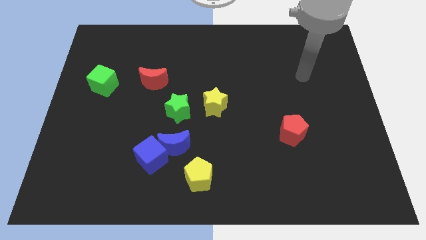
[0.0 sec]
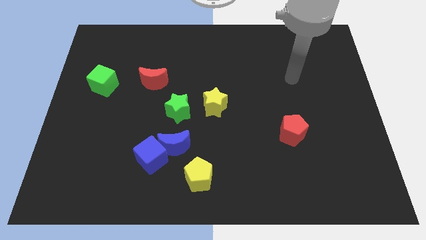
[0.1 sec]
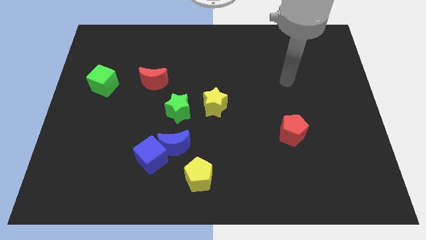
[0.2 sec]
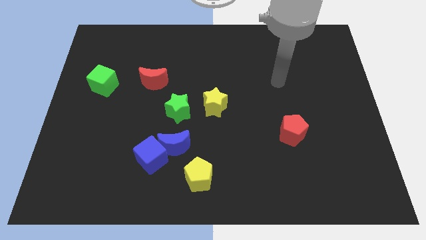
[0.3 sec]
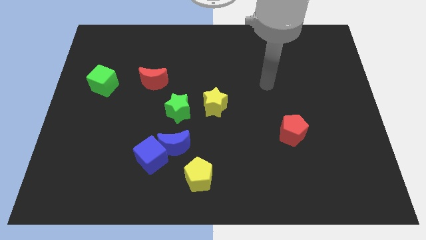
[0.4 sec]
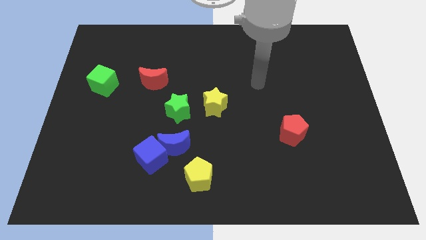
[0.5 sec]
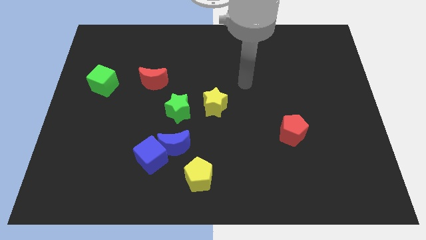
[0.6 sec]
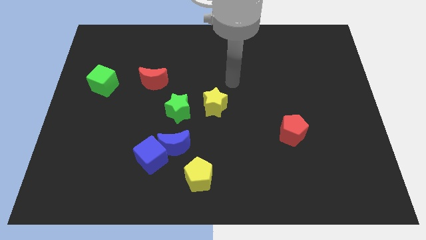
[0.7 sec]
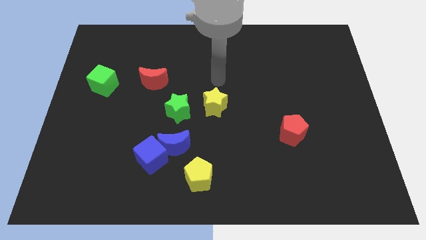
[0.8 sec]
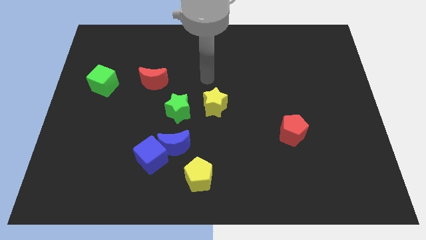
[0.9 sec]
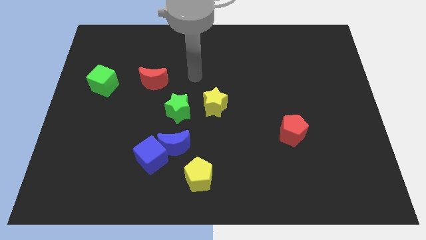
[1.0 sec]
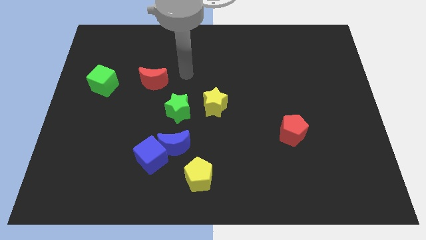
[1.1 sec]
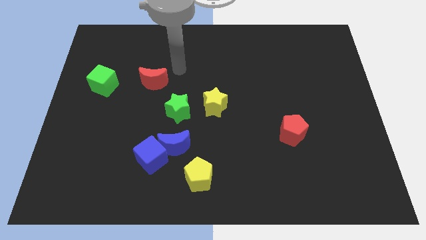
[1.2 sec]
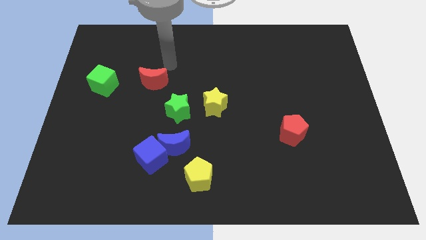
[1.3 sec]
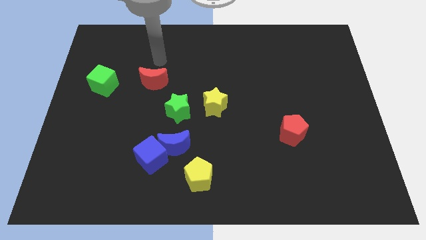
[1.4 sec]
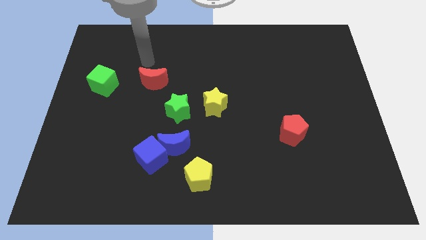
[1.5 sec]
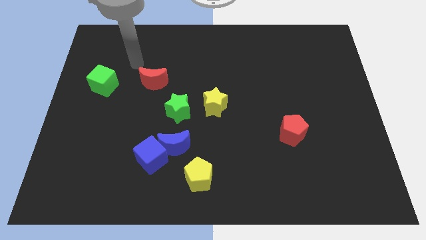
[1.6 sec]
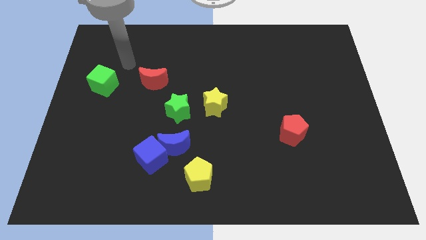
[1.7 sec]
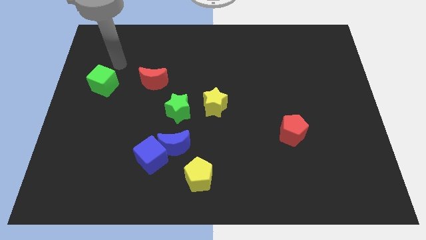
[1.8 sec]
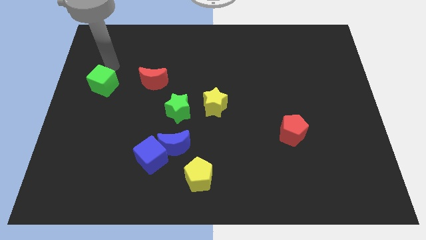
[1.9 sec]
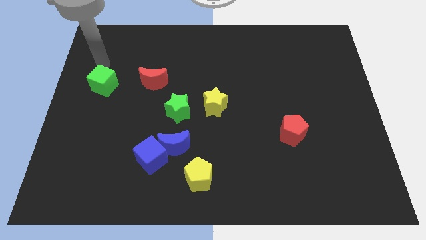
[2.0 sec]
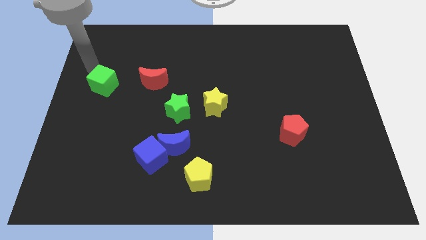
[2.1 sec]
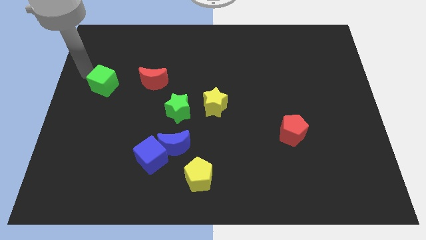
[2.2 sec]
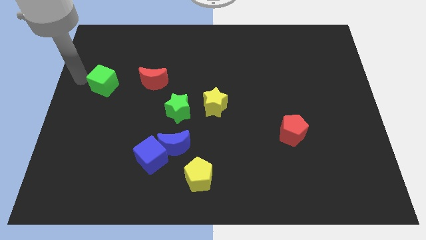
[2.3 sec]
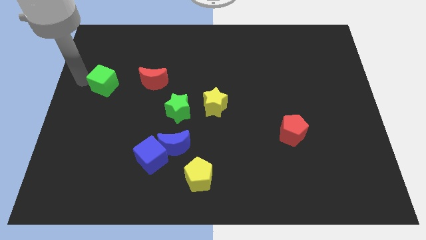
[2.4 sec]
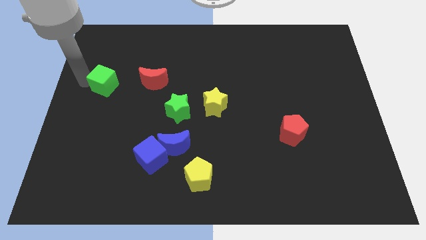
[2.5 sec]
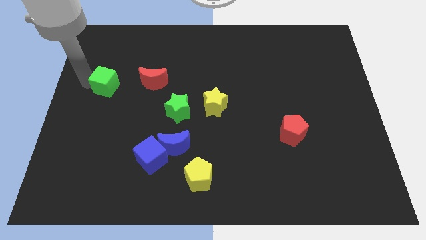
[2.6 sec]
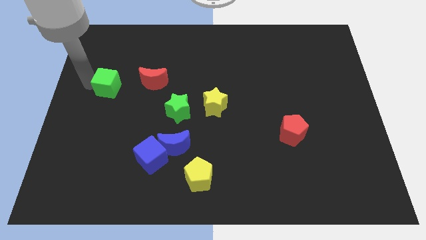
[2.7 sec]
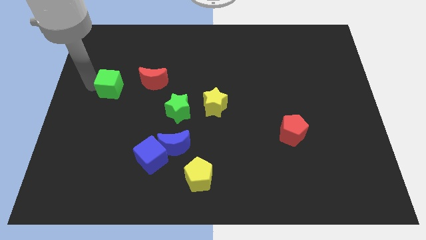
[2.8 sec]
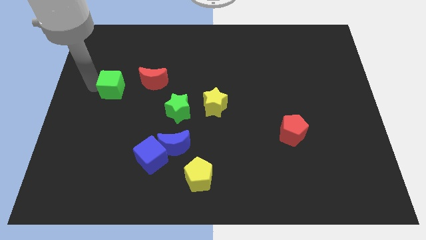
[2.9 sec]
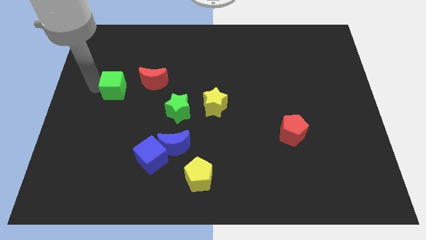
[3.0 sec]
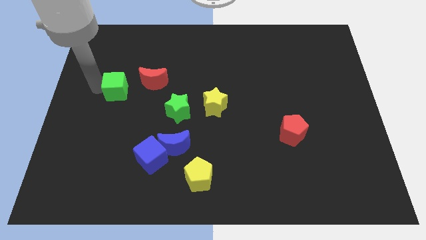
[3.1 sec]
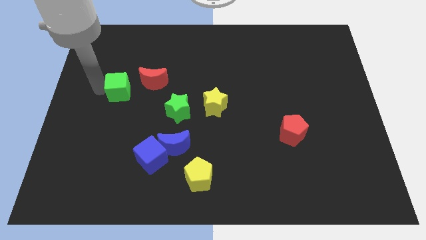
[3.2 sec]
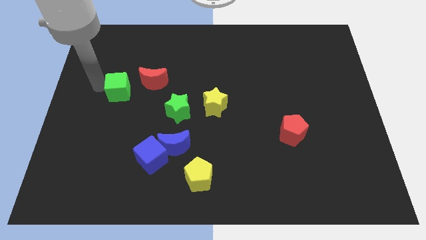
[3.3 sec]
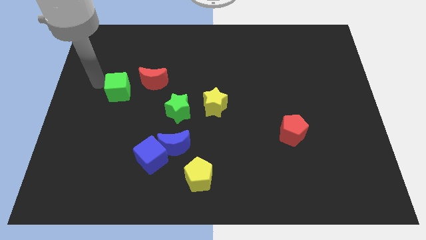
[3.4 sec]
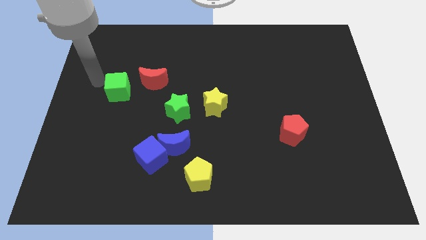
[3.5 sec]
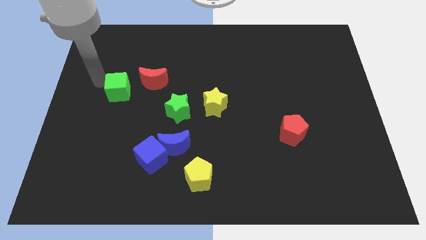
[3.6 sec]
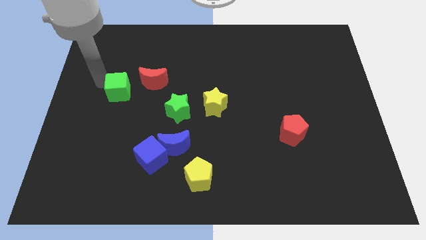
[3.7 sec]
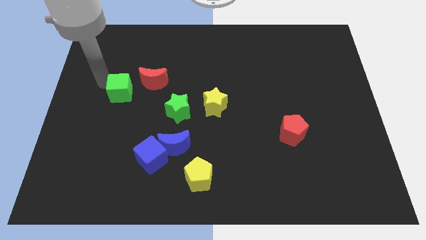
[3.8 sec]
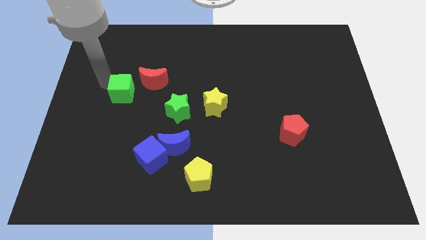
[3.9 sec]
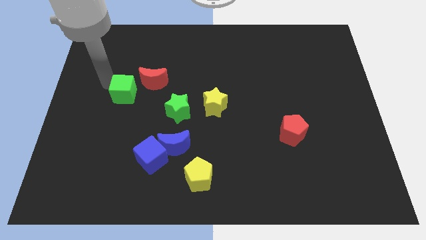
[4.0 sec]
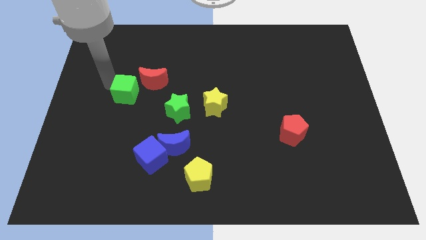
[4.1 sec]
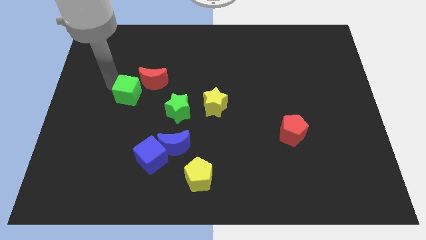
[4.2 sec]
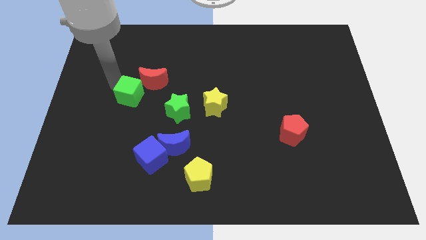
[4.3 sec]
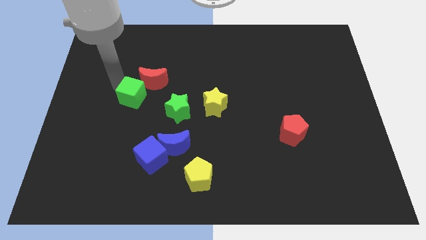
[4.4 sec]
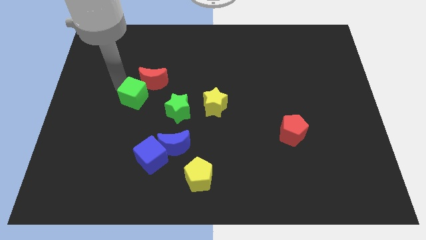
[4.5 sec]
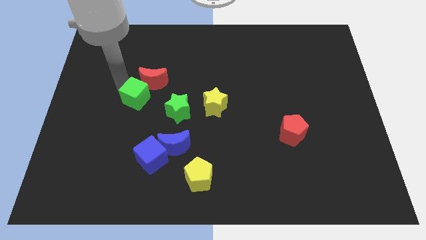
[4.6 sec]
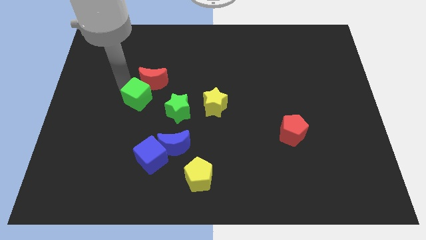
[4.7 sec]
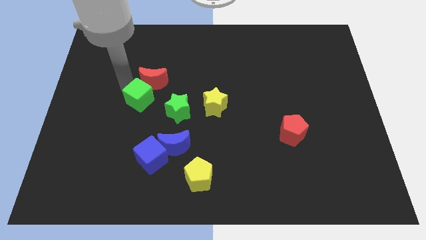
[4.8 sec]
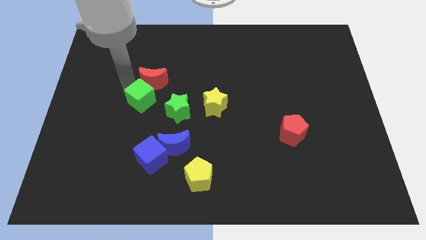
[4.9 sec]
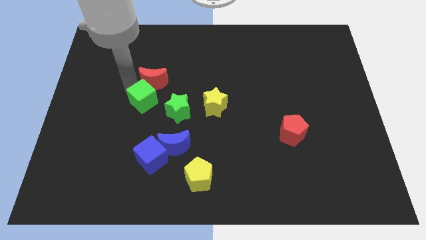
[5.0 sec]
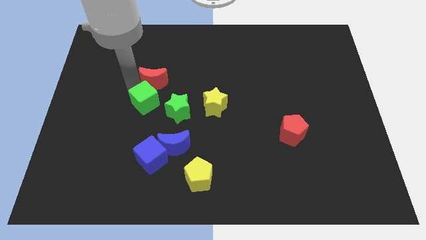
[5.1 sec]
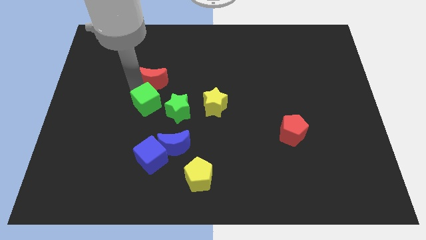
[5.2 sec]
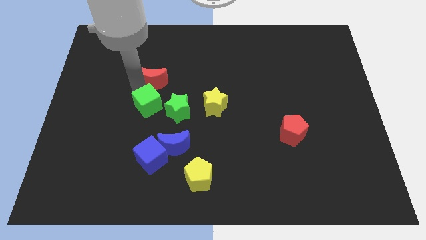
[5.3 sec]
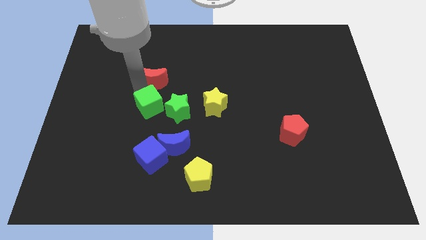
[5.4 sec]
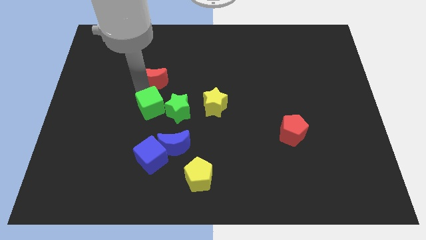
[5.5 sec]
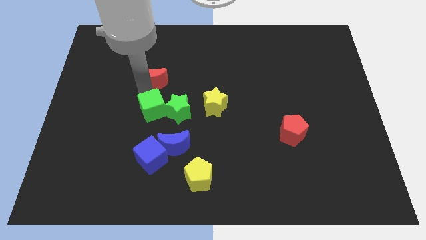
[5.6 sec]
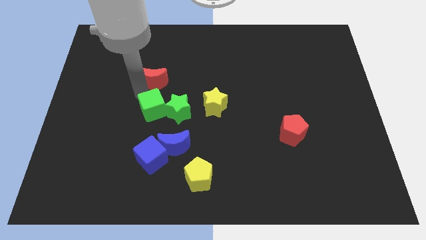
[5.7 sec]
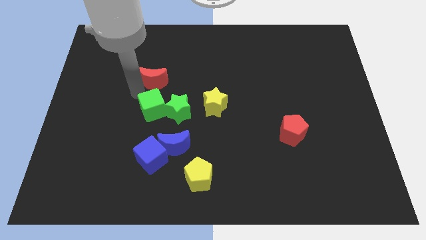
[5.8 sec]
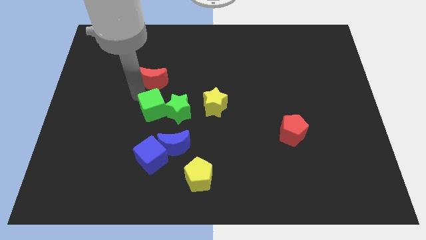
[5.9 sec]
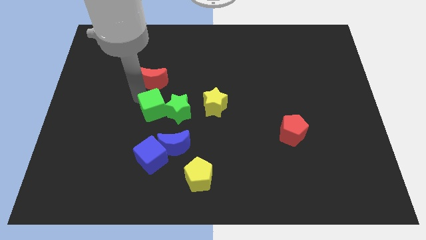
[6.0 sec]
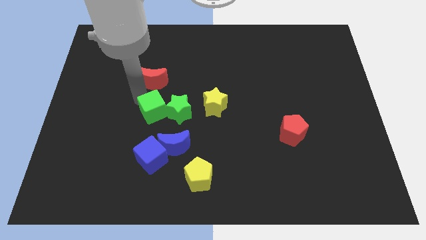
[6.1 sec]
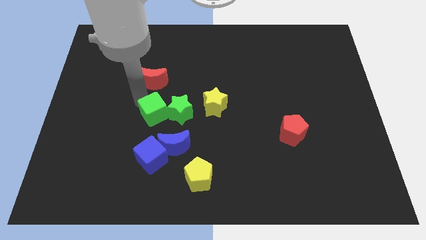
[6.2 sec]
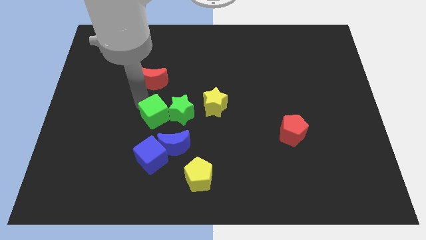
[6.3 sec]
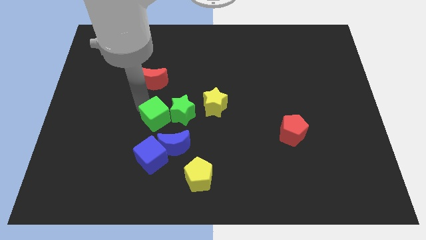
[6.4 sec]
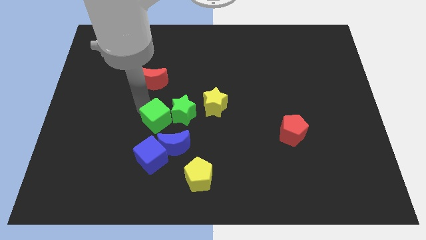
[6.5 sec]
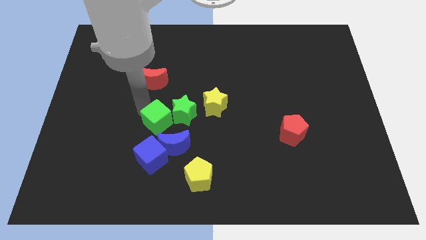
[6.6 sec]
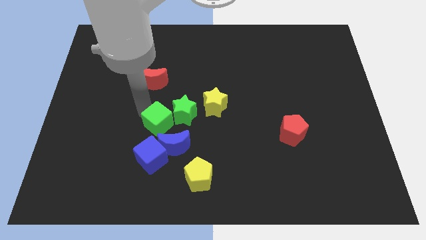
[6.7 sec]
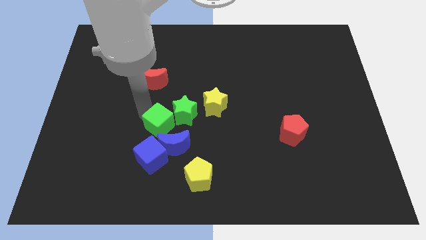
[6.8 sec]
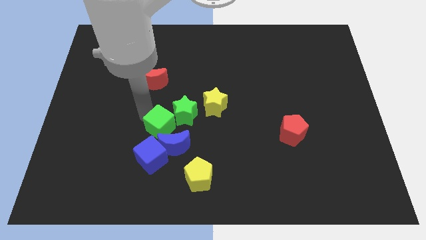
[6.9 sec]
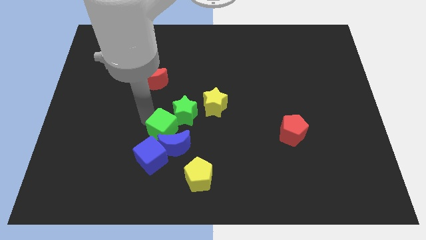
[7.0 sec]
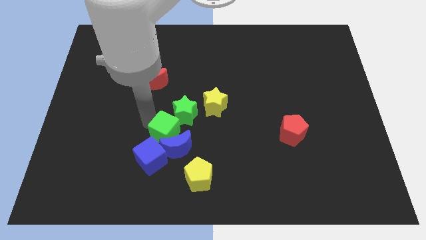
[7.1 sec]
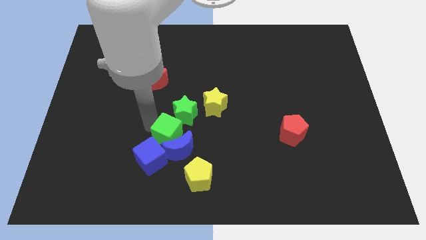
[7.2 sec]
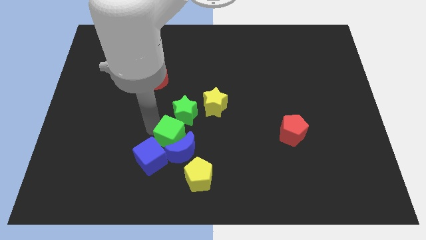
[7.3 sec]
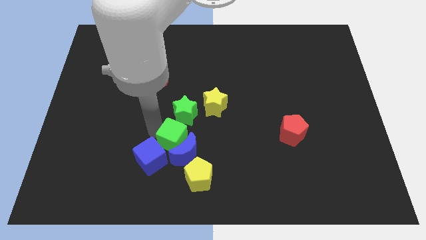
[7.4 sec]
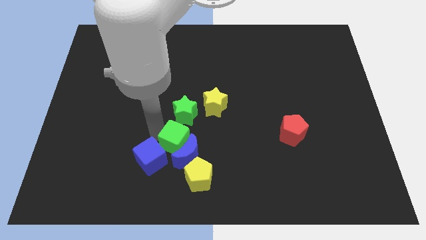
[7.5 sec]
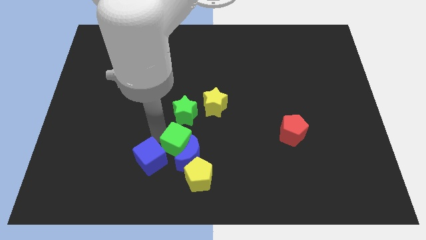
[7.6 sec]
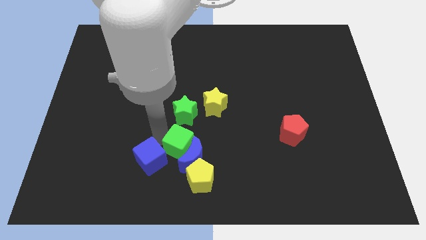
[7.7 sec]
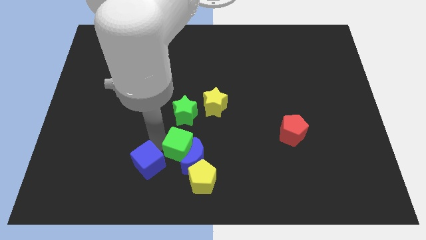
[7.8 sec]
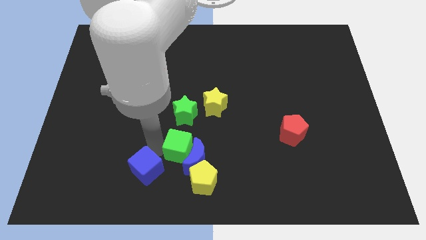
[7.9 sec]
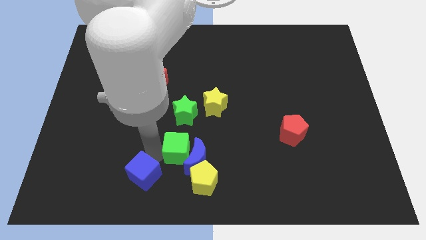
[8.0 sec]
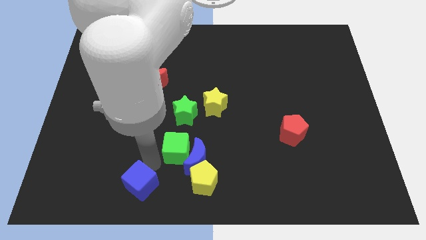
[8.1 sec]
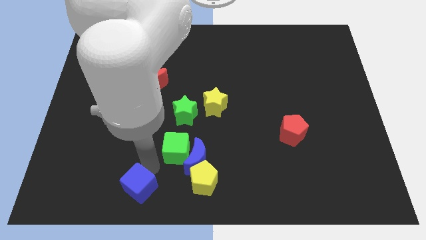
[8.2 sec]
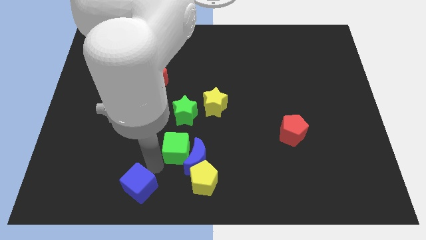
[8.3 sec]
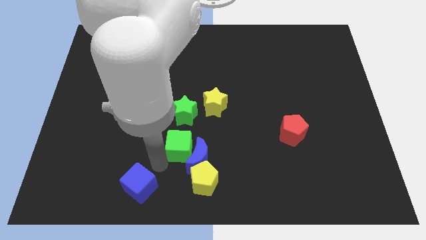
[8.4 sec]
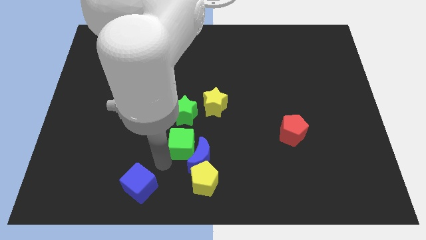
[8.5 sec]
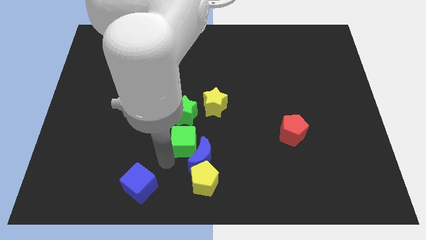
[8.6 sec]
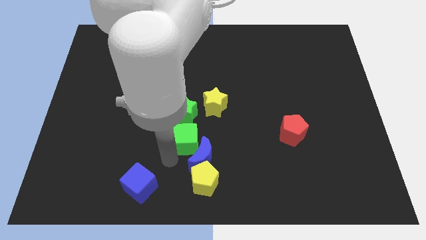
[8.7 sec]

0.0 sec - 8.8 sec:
move the green cube to the bottom right of the green star
